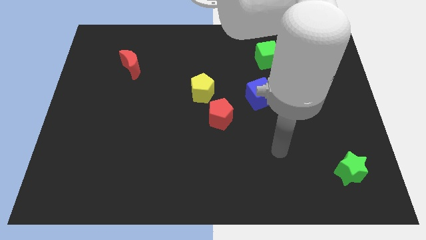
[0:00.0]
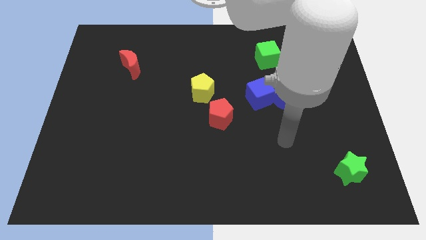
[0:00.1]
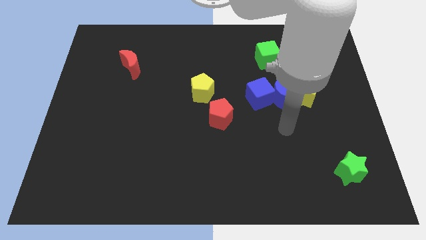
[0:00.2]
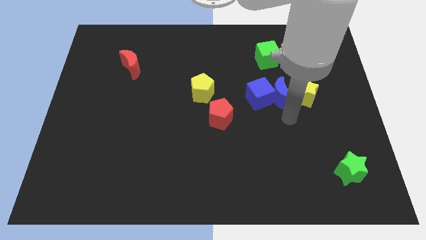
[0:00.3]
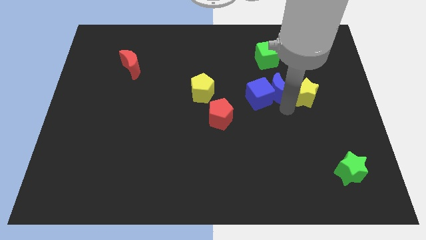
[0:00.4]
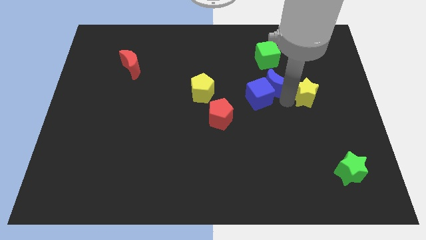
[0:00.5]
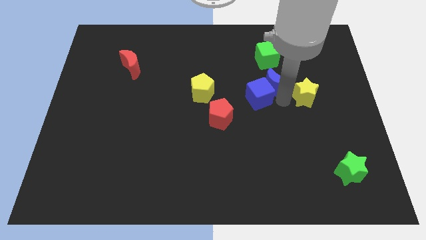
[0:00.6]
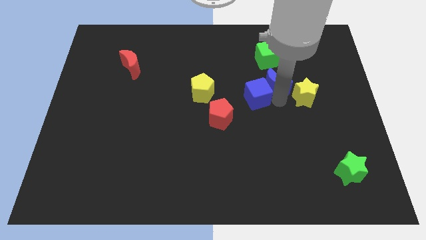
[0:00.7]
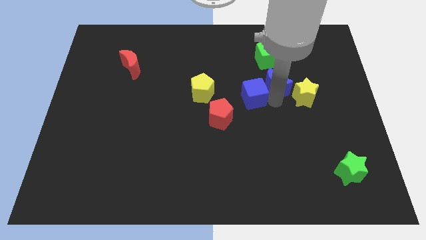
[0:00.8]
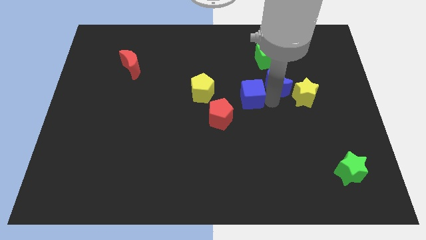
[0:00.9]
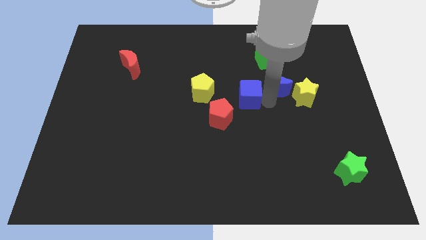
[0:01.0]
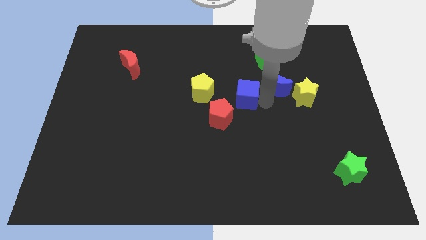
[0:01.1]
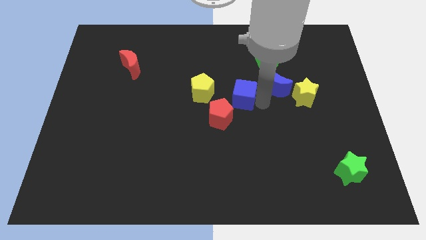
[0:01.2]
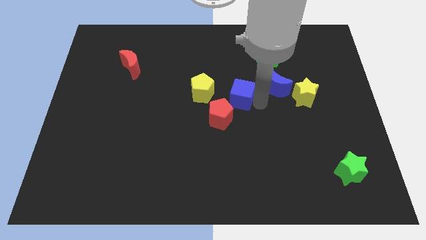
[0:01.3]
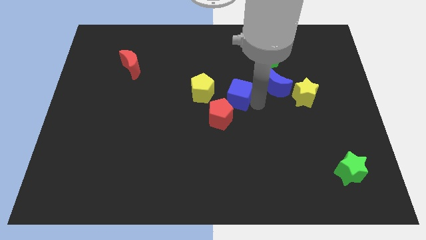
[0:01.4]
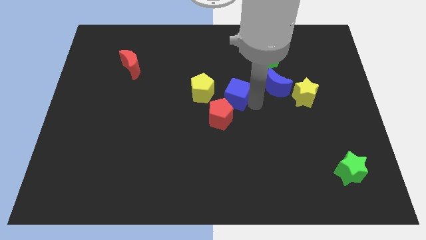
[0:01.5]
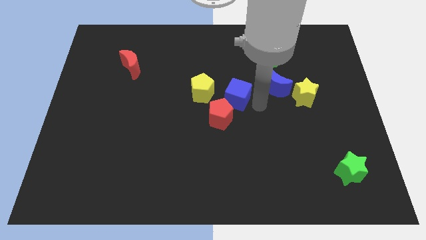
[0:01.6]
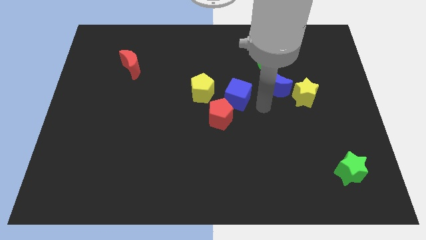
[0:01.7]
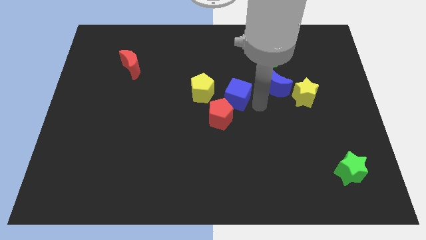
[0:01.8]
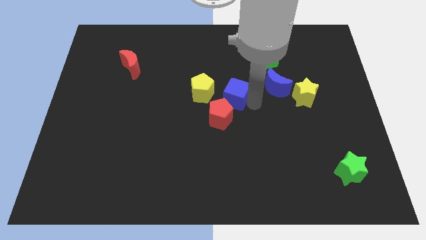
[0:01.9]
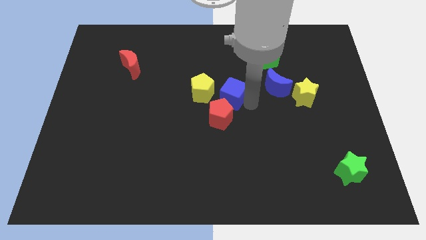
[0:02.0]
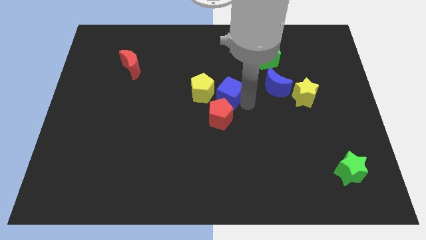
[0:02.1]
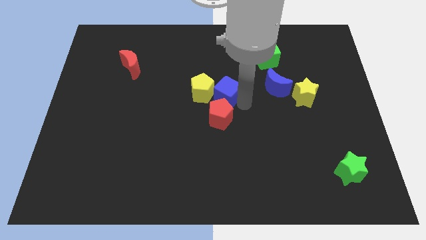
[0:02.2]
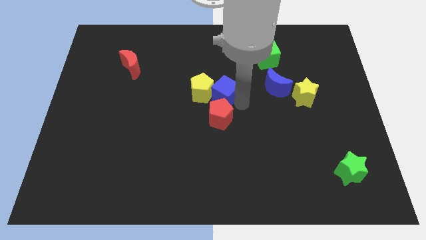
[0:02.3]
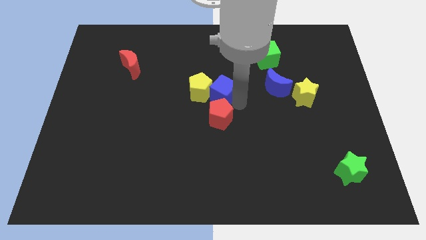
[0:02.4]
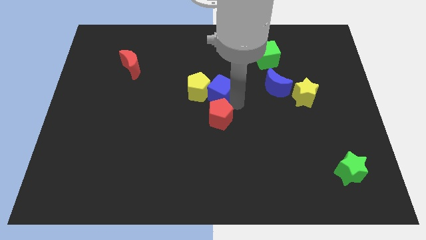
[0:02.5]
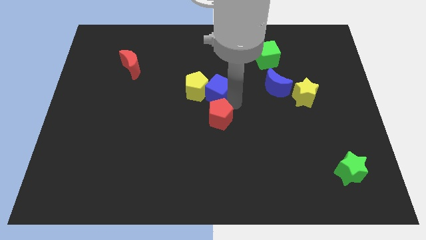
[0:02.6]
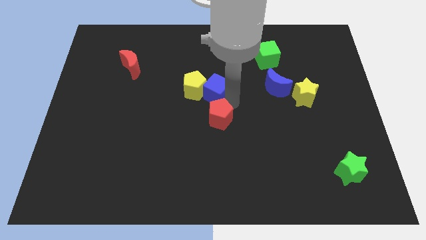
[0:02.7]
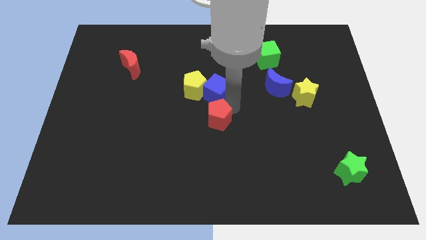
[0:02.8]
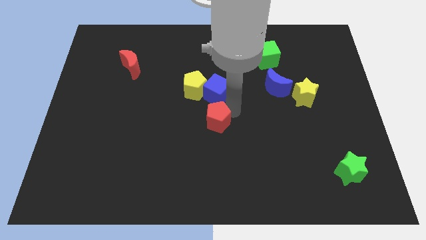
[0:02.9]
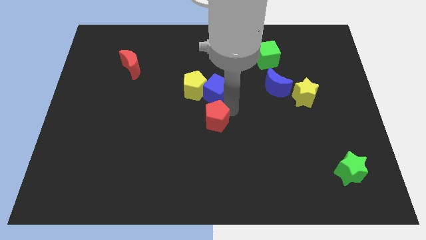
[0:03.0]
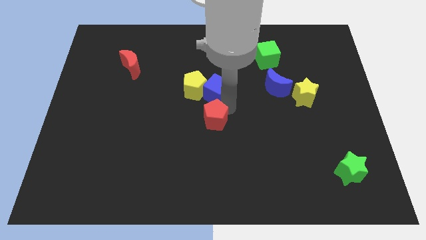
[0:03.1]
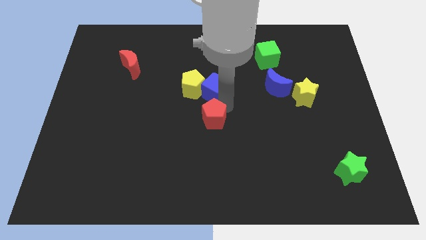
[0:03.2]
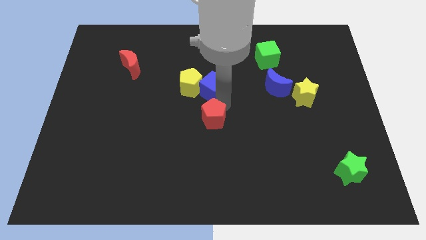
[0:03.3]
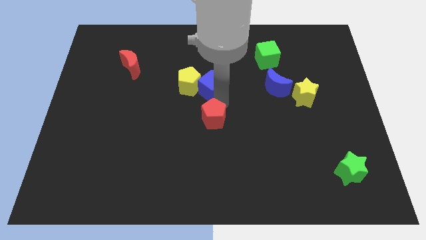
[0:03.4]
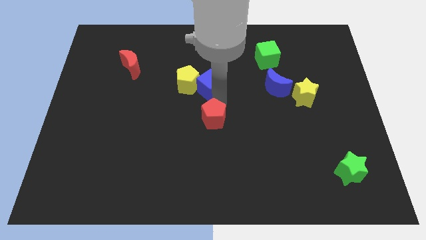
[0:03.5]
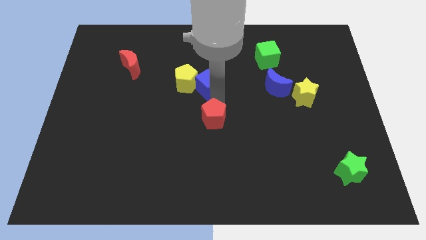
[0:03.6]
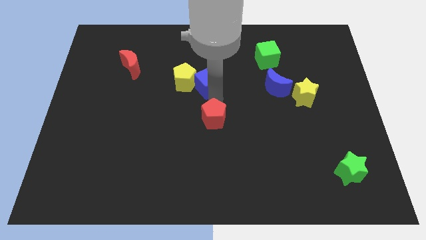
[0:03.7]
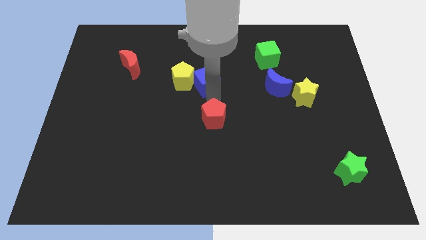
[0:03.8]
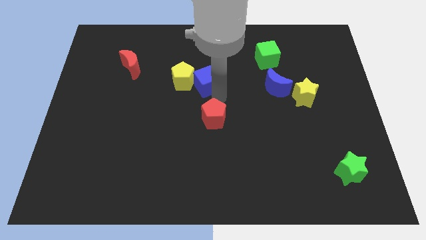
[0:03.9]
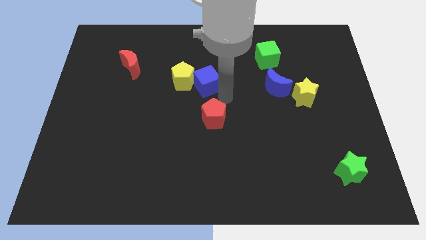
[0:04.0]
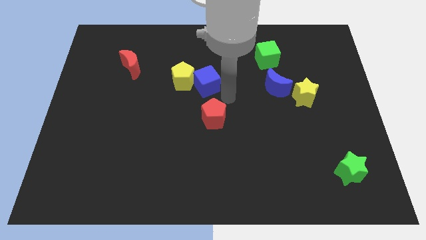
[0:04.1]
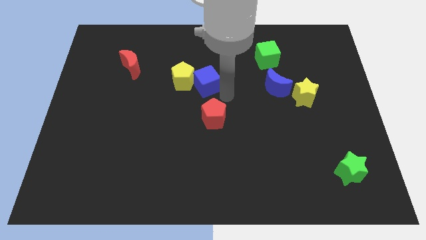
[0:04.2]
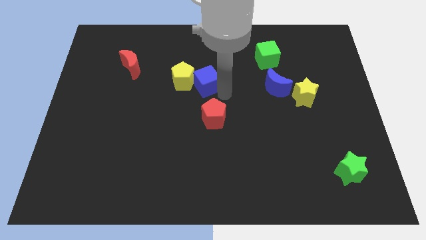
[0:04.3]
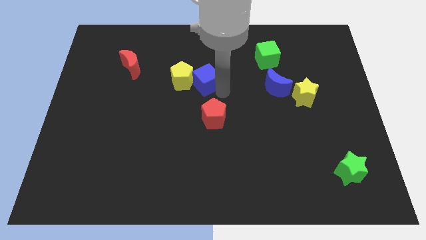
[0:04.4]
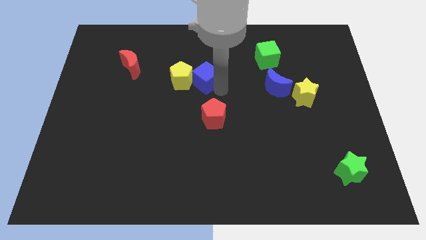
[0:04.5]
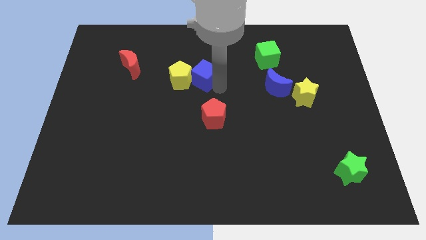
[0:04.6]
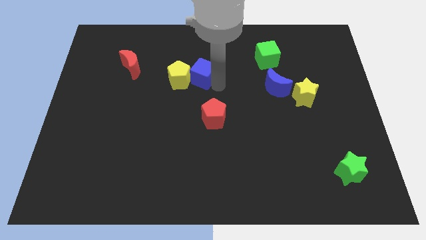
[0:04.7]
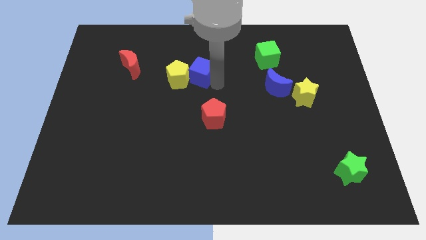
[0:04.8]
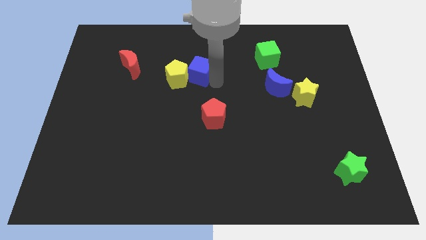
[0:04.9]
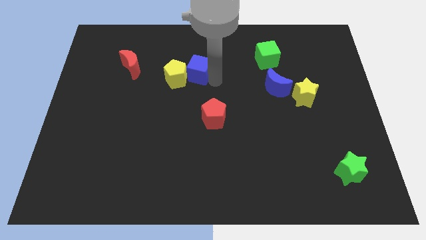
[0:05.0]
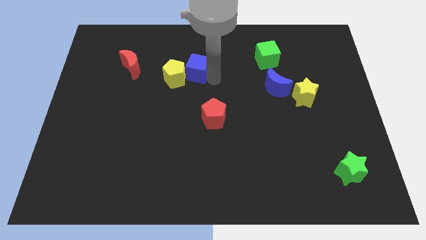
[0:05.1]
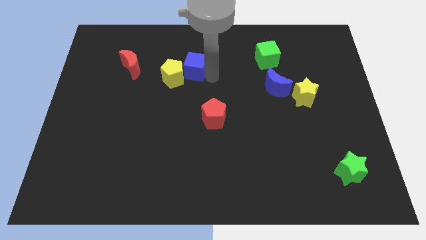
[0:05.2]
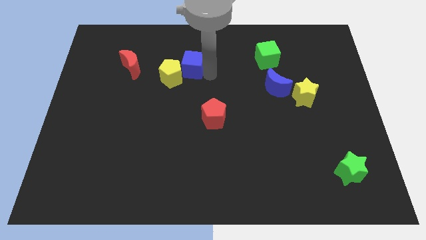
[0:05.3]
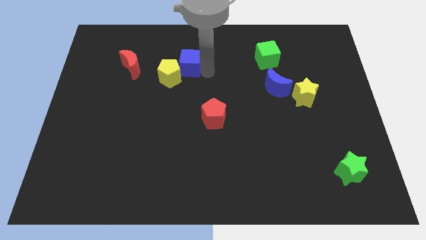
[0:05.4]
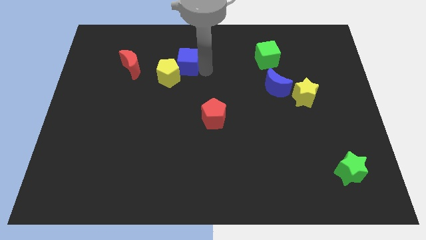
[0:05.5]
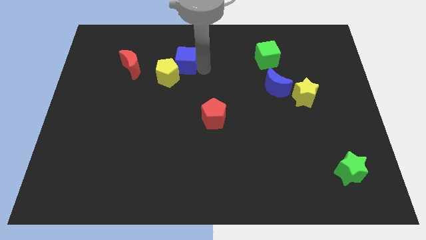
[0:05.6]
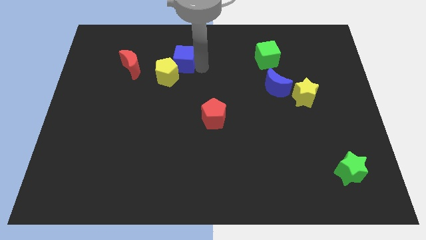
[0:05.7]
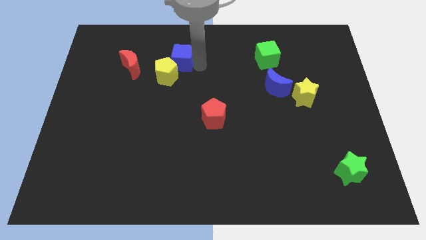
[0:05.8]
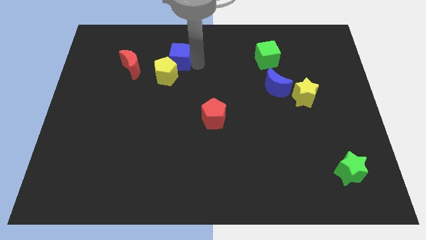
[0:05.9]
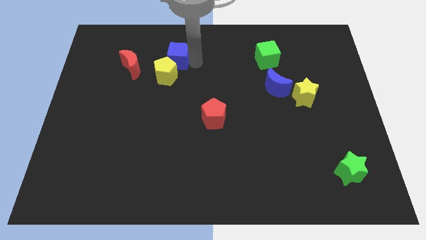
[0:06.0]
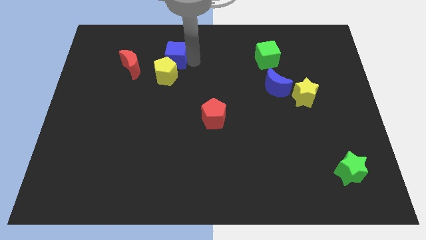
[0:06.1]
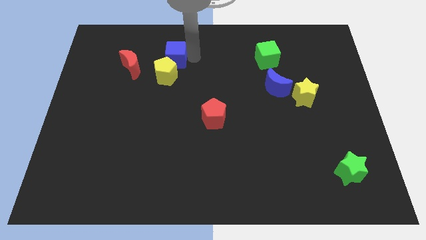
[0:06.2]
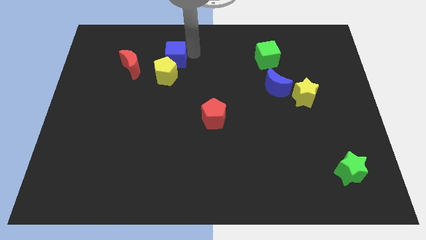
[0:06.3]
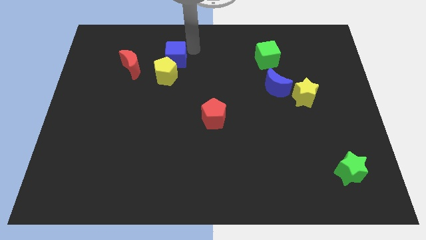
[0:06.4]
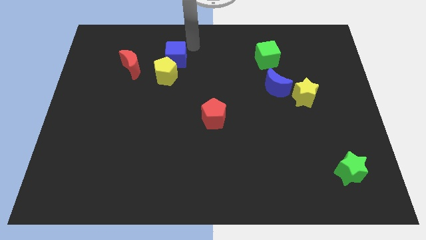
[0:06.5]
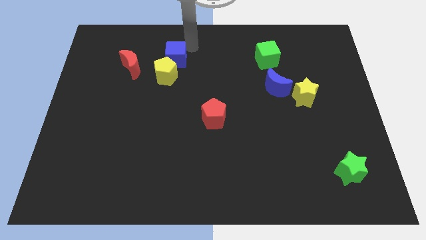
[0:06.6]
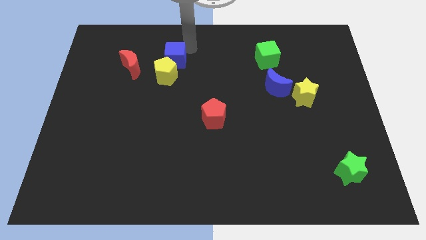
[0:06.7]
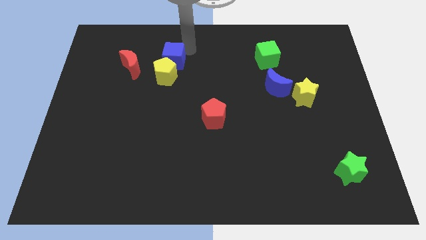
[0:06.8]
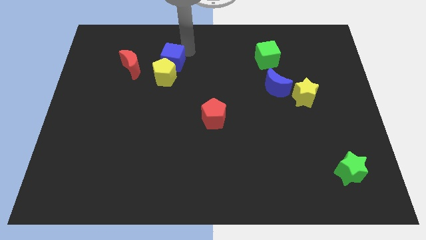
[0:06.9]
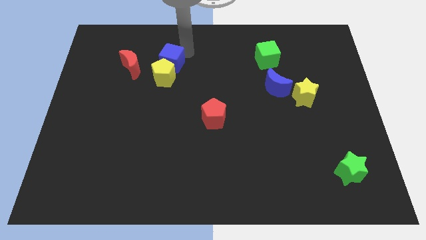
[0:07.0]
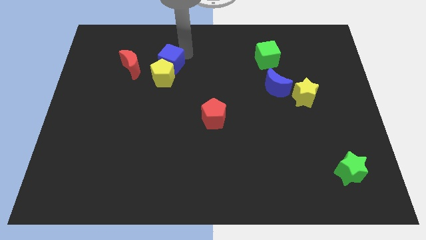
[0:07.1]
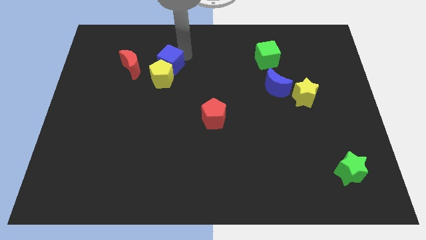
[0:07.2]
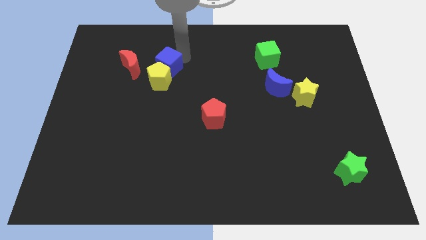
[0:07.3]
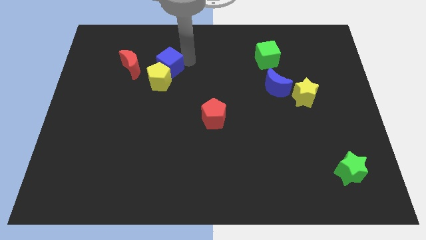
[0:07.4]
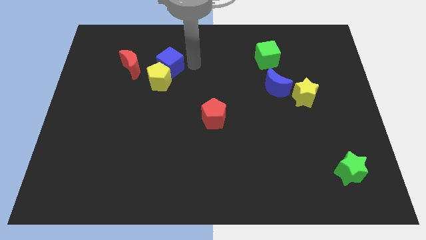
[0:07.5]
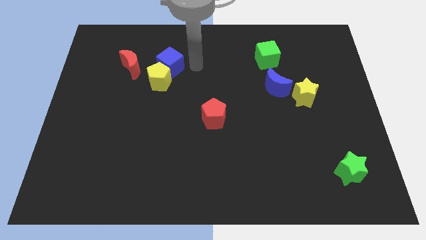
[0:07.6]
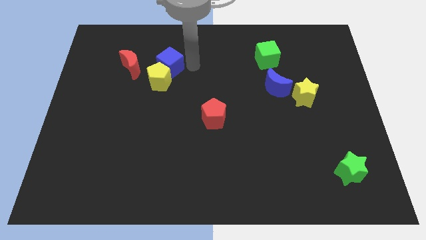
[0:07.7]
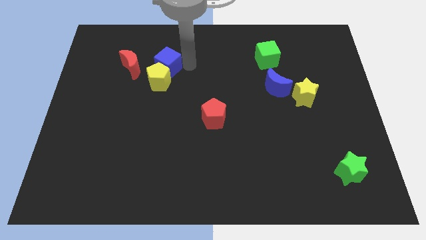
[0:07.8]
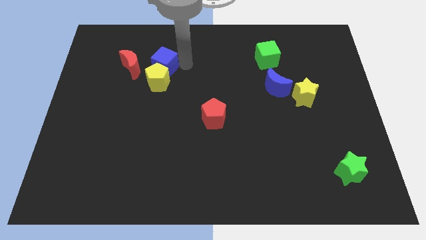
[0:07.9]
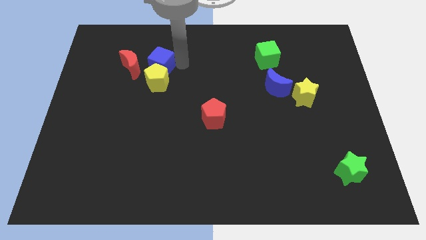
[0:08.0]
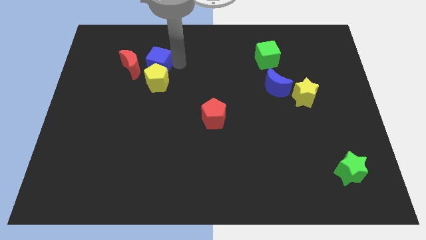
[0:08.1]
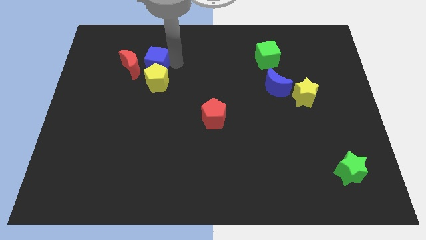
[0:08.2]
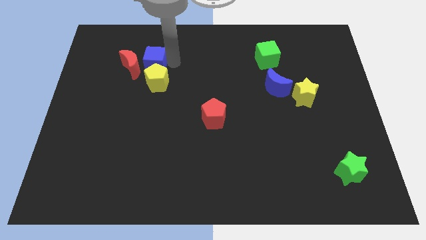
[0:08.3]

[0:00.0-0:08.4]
push the blue cube towards the red moon
